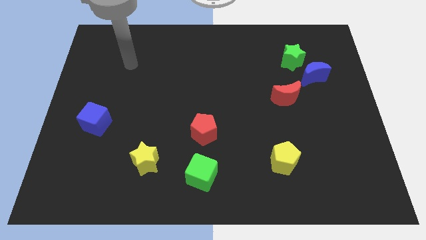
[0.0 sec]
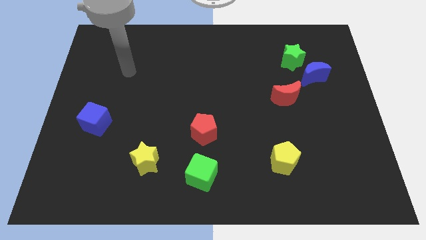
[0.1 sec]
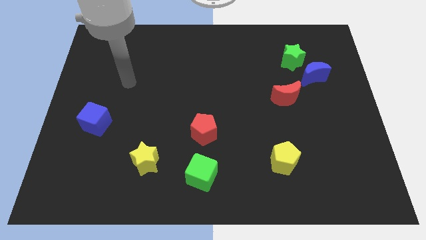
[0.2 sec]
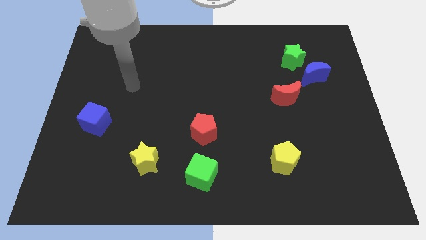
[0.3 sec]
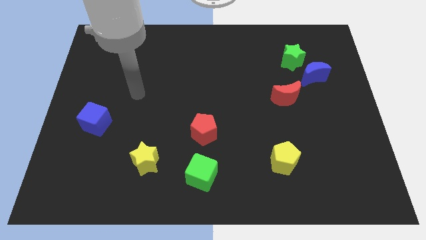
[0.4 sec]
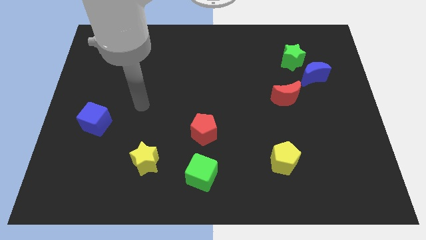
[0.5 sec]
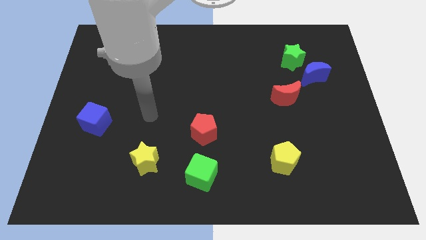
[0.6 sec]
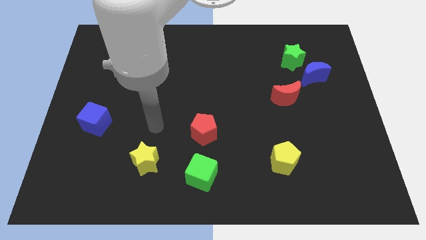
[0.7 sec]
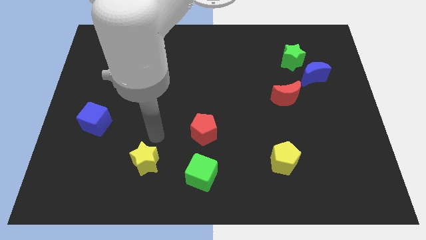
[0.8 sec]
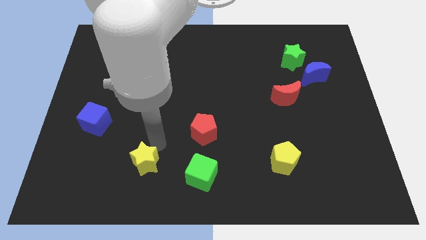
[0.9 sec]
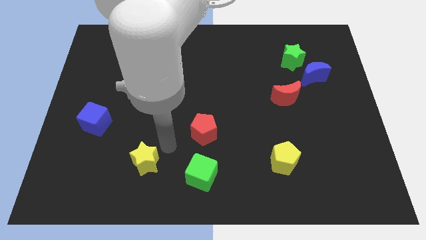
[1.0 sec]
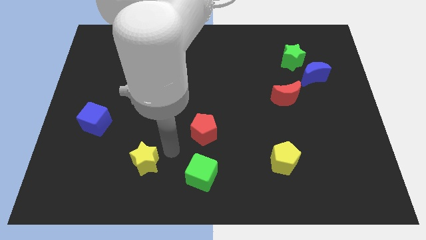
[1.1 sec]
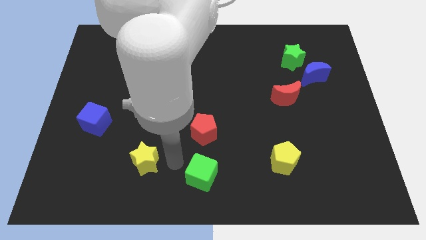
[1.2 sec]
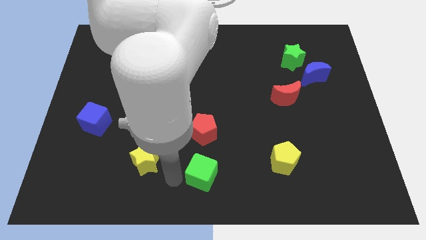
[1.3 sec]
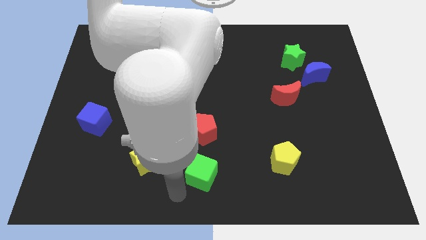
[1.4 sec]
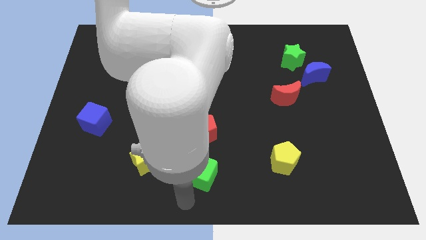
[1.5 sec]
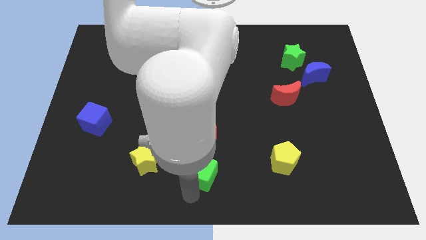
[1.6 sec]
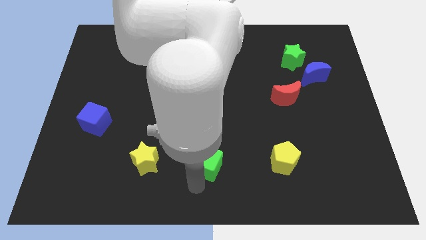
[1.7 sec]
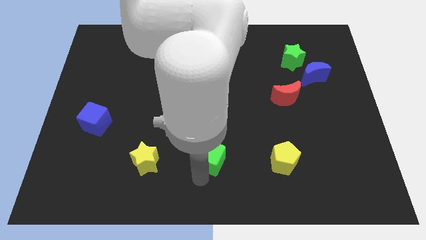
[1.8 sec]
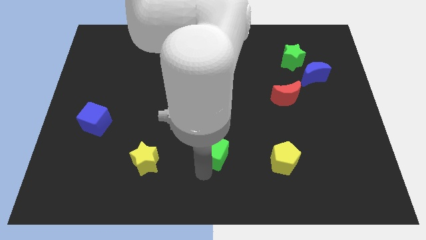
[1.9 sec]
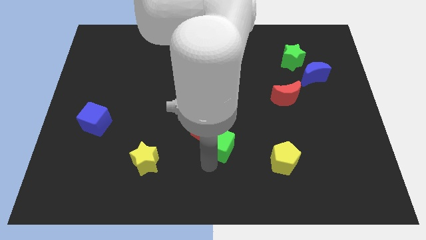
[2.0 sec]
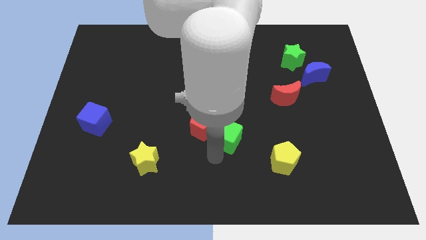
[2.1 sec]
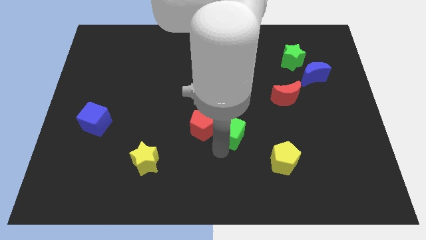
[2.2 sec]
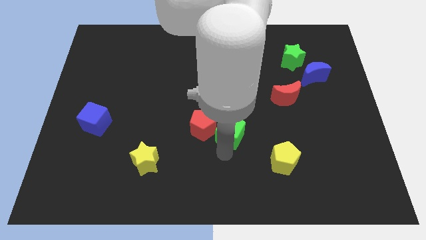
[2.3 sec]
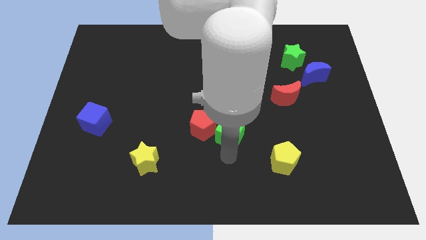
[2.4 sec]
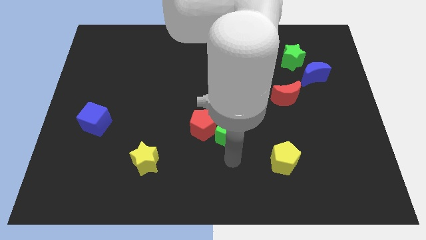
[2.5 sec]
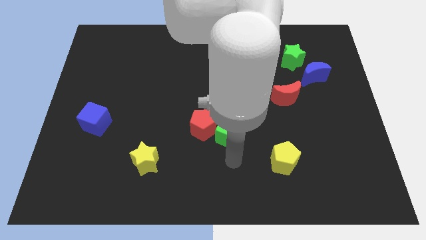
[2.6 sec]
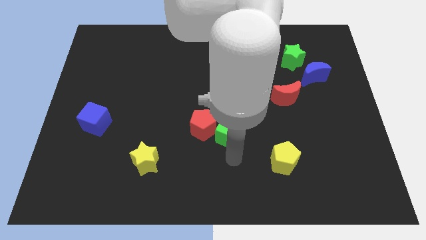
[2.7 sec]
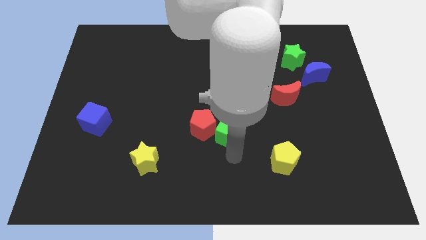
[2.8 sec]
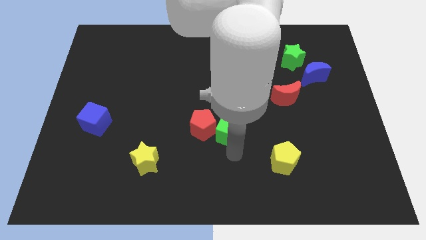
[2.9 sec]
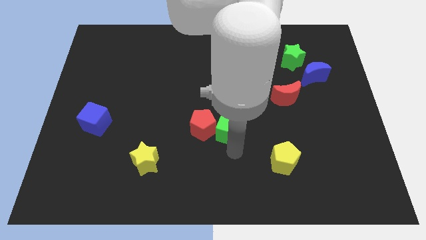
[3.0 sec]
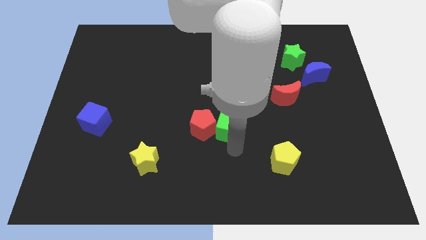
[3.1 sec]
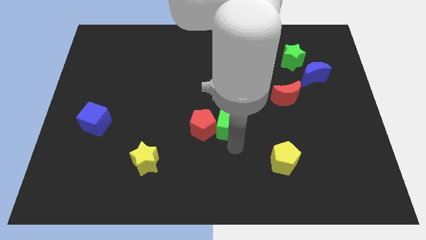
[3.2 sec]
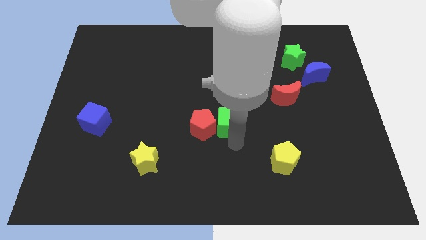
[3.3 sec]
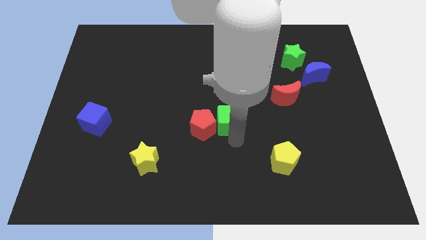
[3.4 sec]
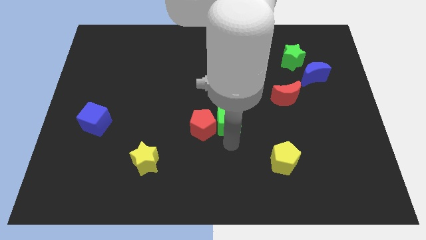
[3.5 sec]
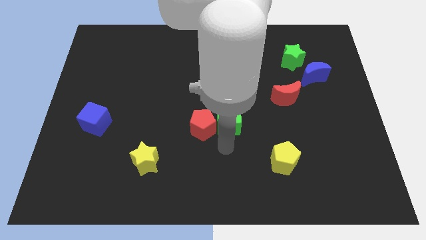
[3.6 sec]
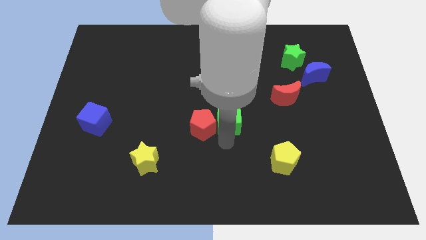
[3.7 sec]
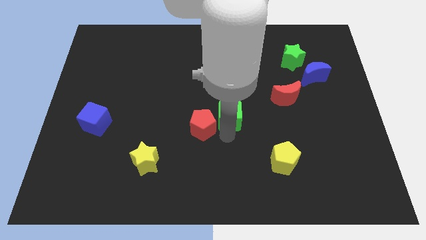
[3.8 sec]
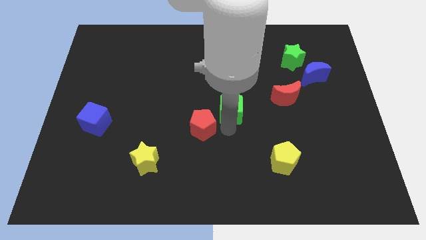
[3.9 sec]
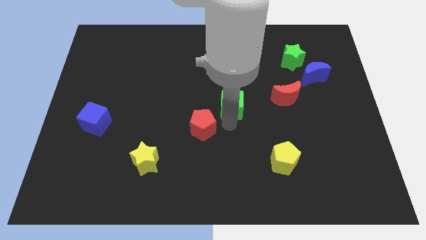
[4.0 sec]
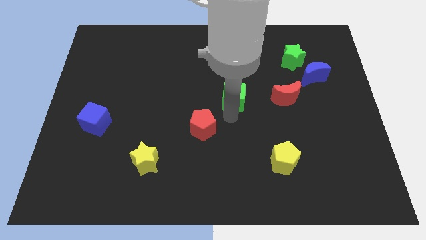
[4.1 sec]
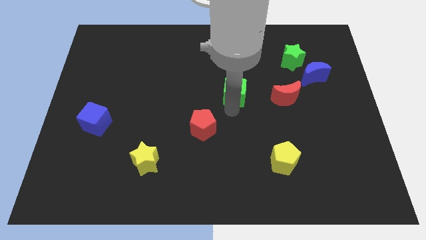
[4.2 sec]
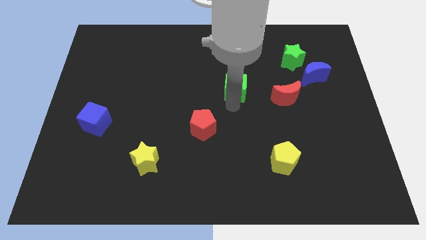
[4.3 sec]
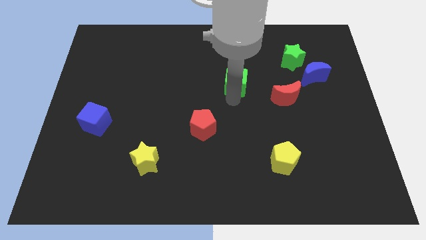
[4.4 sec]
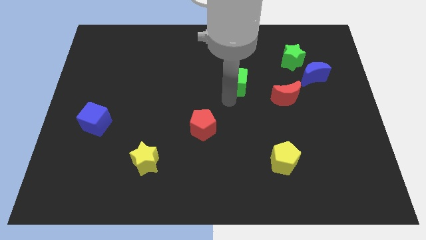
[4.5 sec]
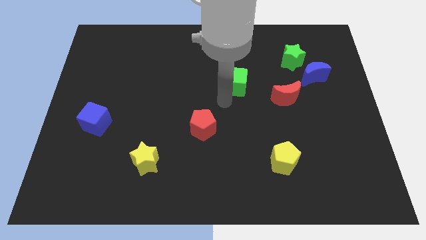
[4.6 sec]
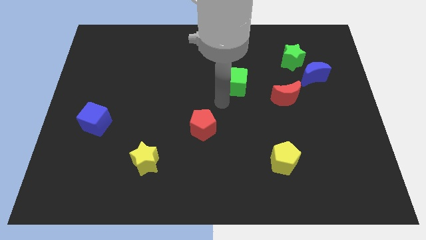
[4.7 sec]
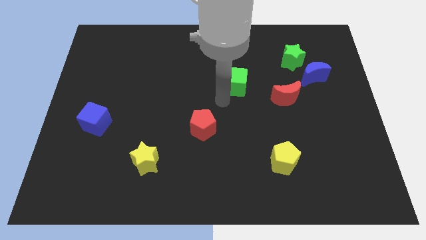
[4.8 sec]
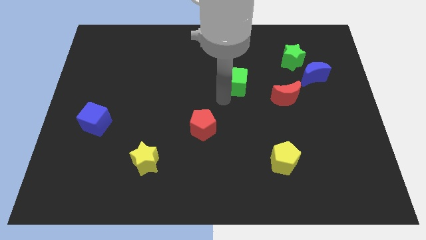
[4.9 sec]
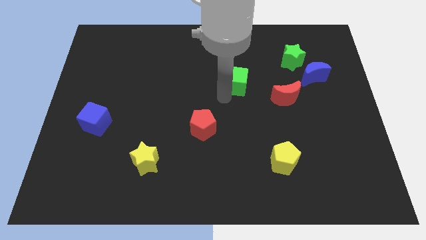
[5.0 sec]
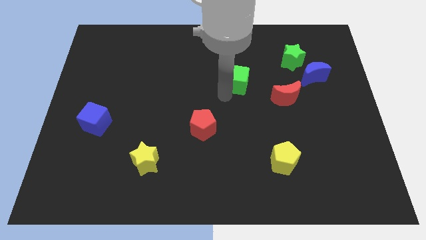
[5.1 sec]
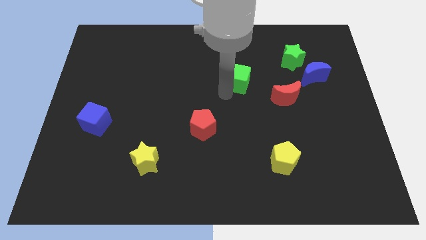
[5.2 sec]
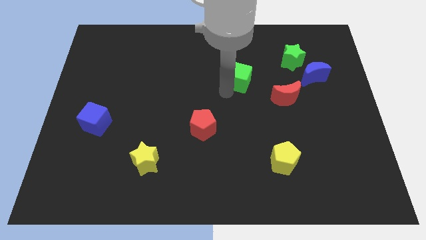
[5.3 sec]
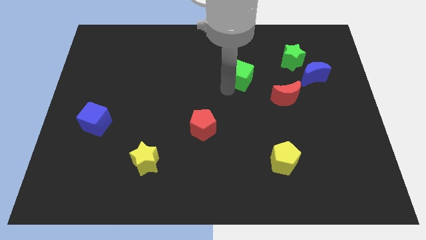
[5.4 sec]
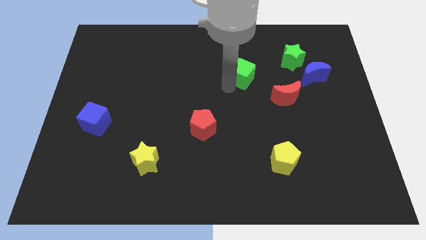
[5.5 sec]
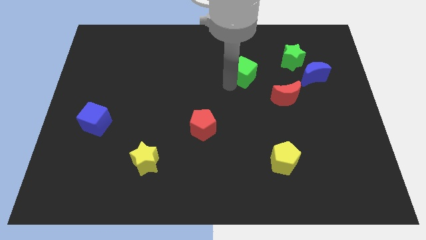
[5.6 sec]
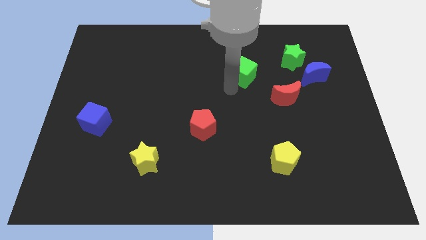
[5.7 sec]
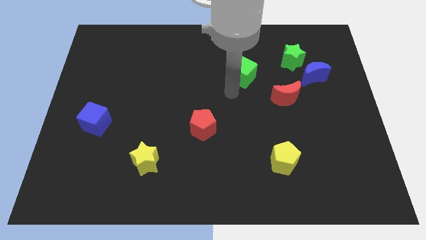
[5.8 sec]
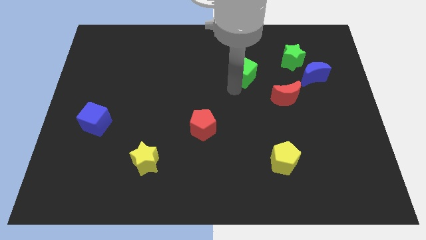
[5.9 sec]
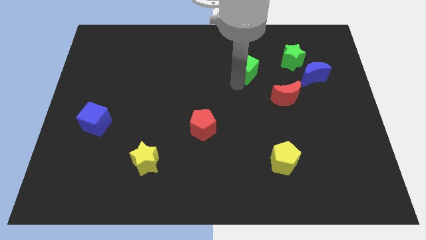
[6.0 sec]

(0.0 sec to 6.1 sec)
put the green cube left of the green star
